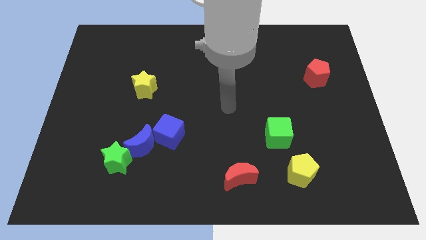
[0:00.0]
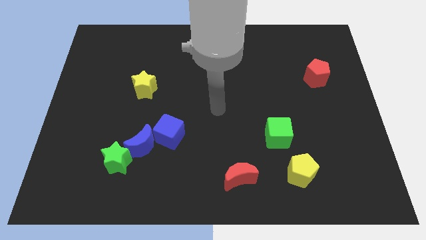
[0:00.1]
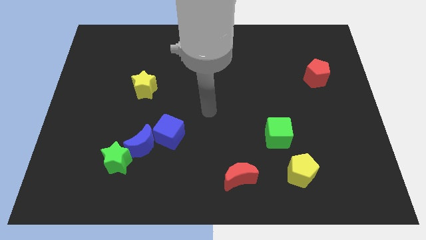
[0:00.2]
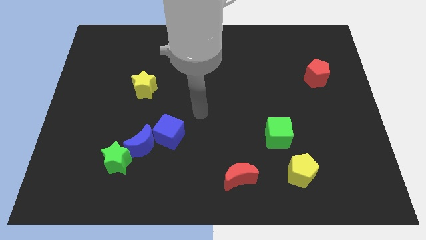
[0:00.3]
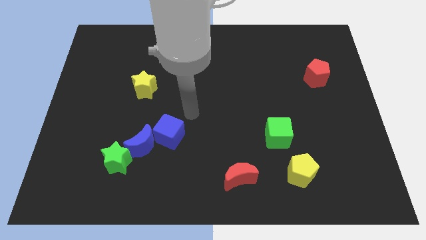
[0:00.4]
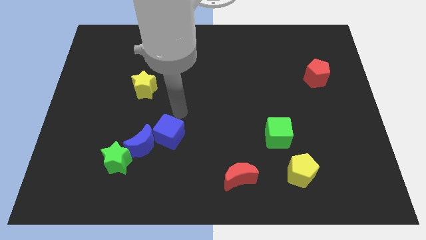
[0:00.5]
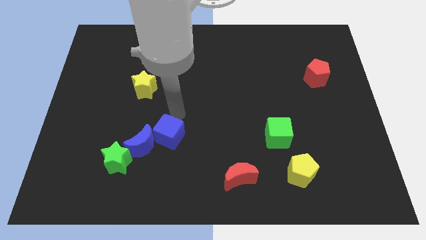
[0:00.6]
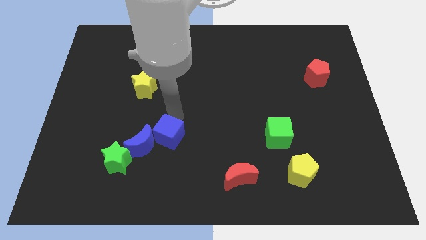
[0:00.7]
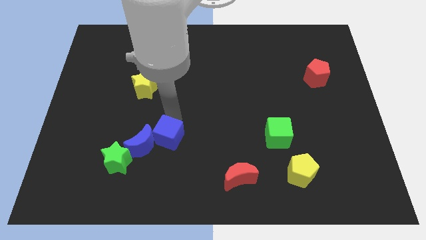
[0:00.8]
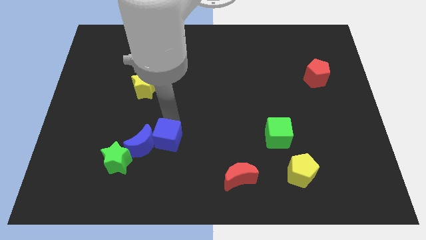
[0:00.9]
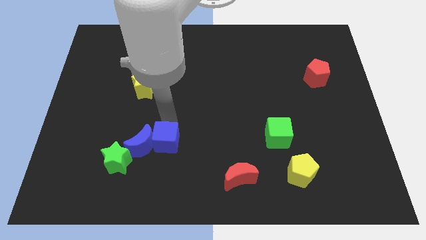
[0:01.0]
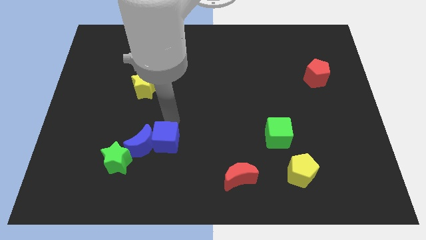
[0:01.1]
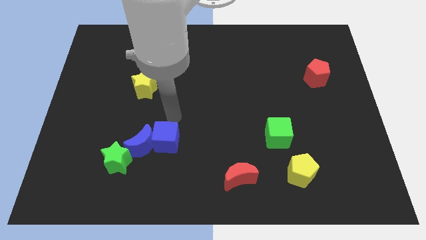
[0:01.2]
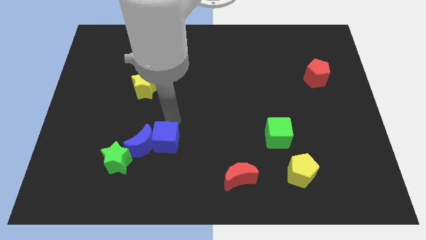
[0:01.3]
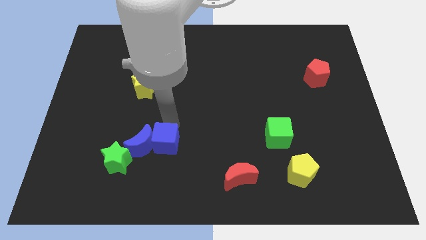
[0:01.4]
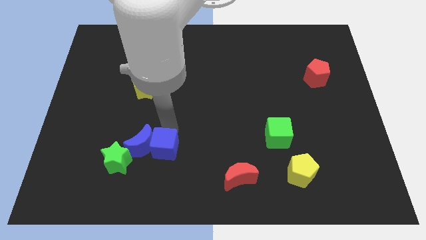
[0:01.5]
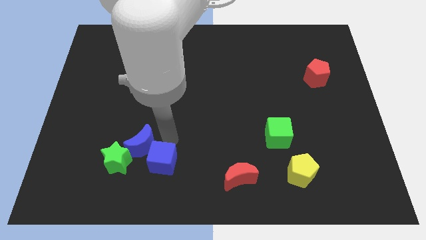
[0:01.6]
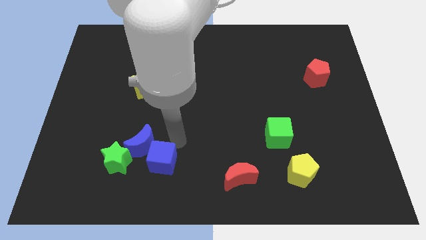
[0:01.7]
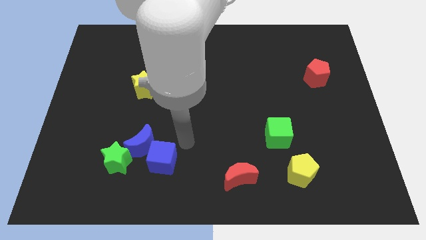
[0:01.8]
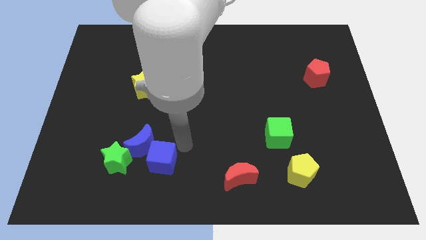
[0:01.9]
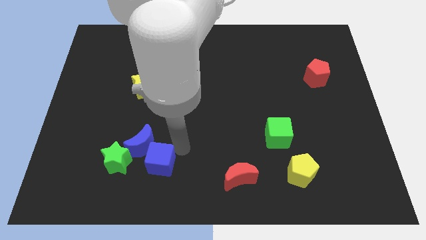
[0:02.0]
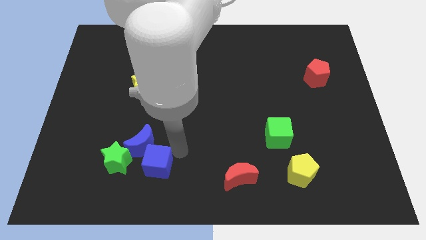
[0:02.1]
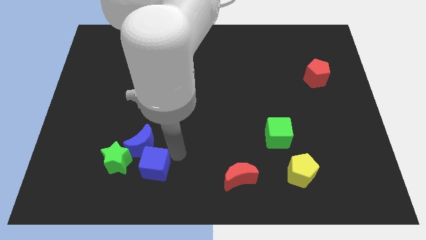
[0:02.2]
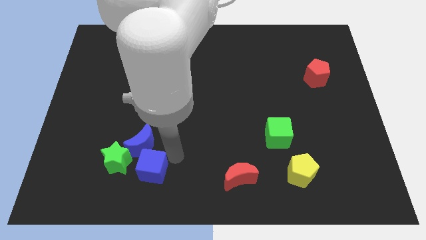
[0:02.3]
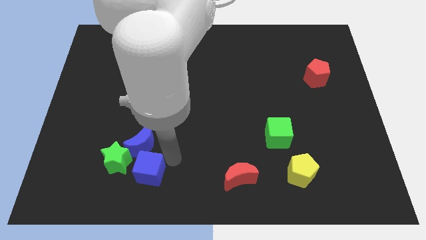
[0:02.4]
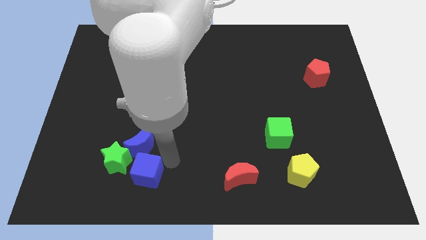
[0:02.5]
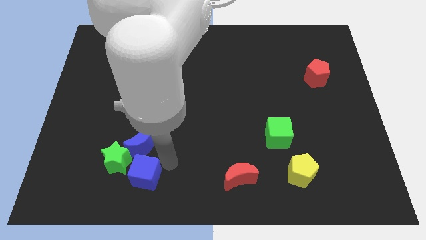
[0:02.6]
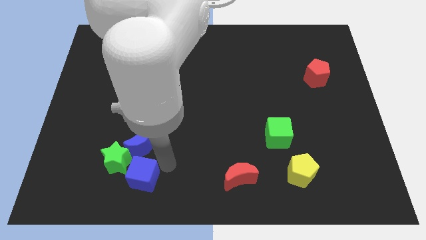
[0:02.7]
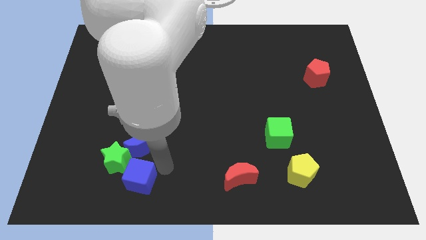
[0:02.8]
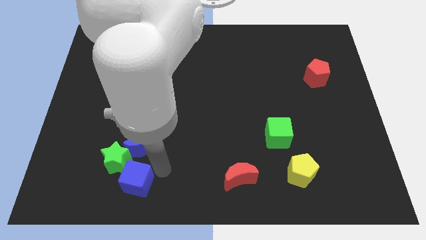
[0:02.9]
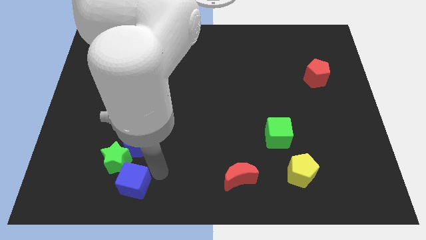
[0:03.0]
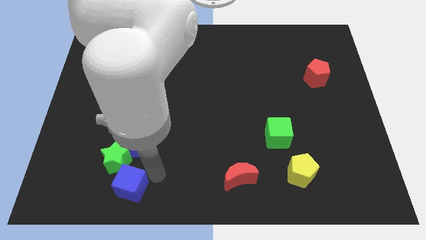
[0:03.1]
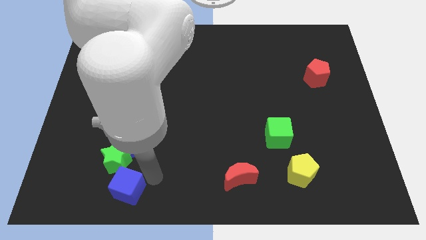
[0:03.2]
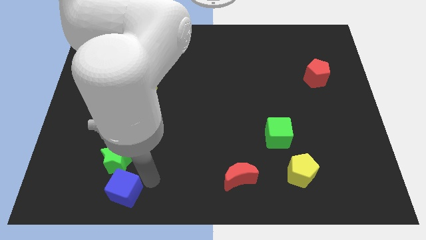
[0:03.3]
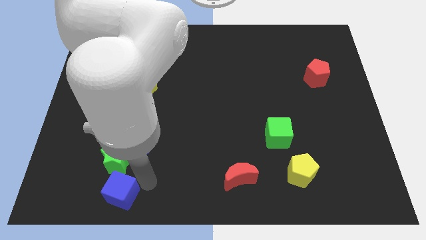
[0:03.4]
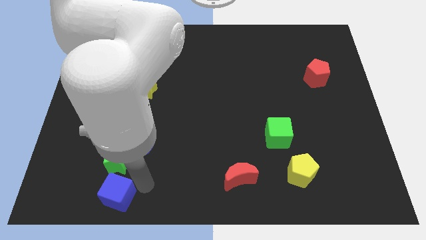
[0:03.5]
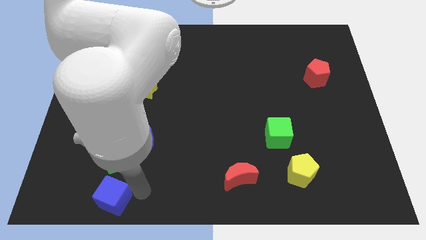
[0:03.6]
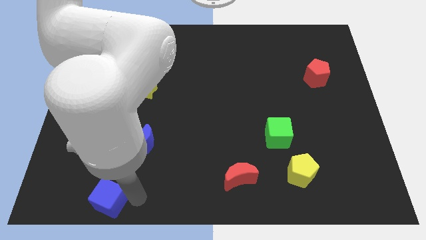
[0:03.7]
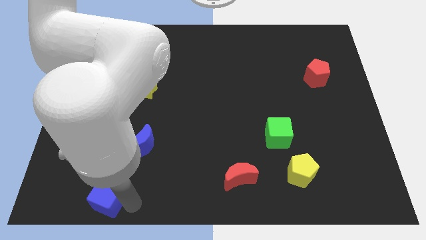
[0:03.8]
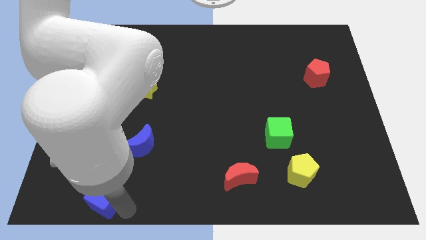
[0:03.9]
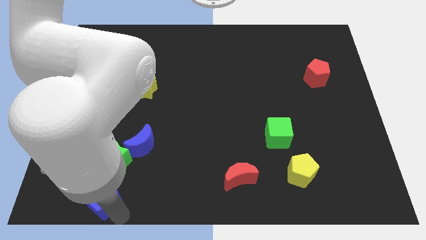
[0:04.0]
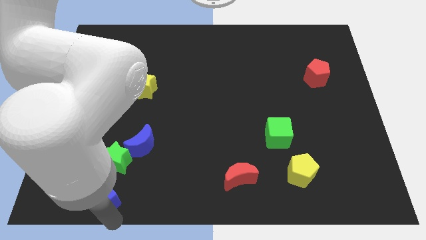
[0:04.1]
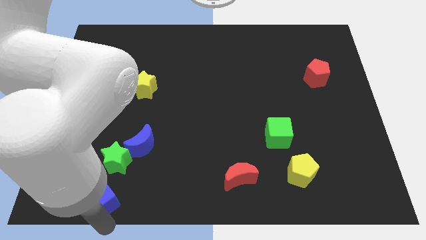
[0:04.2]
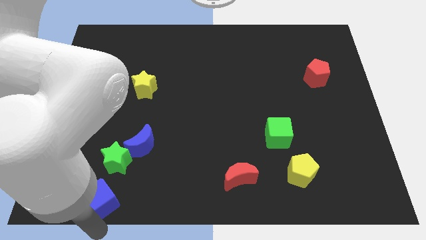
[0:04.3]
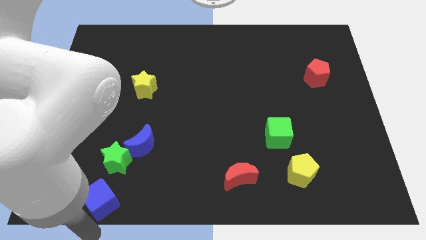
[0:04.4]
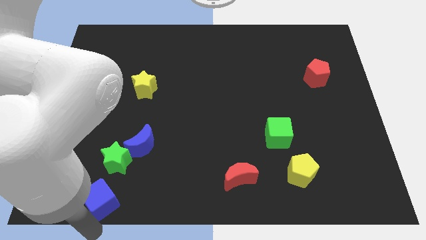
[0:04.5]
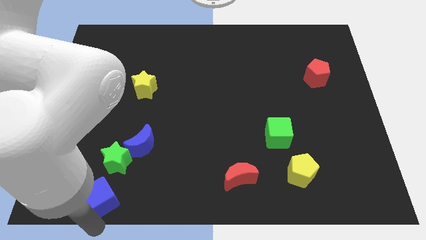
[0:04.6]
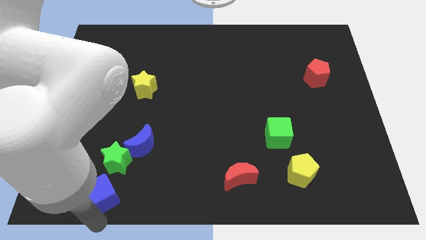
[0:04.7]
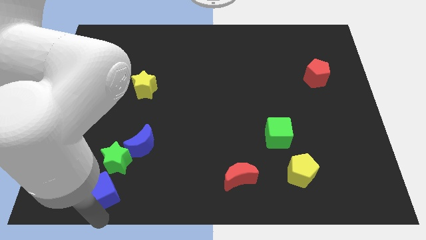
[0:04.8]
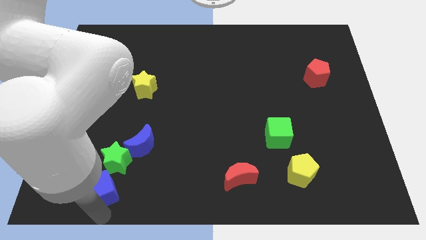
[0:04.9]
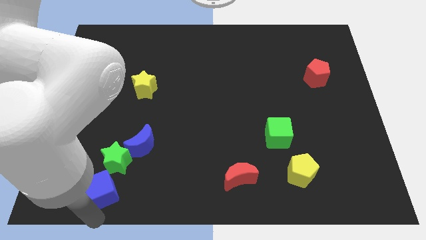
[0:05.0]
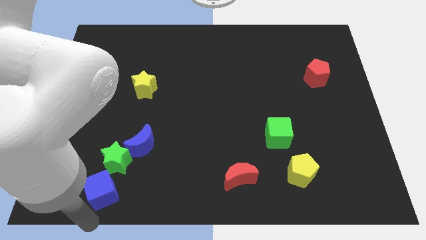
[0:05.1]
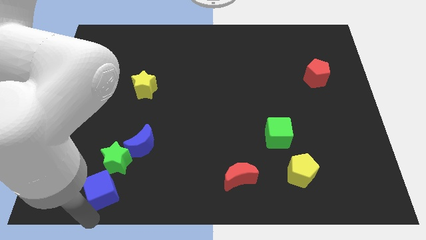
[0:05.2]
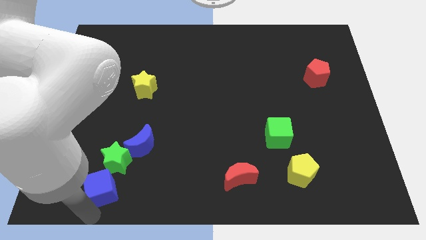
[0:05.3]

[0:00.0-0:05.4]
slide the blue cube diagonally down and to the left of the blue moon

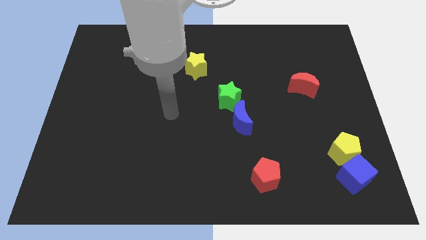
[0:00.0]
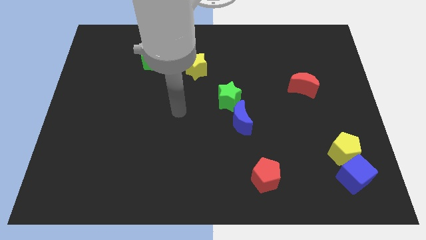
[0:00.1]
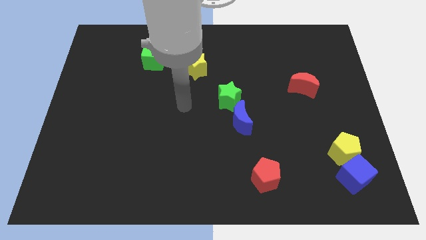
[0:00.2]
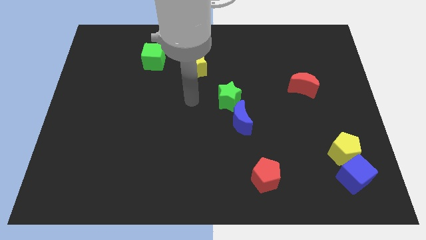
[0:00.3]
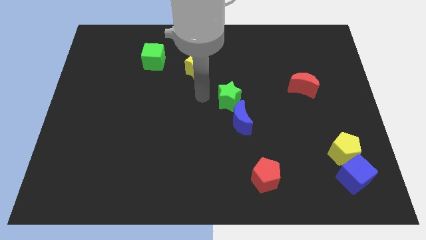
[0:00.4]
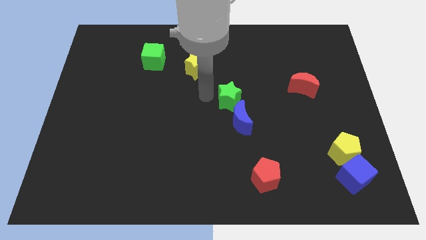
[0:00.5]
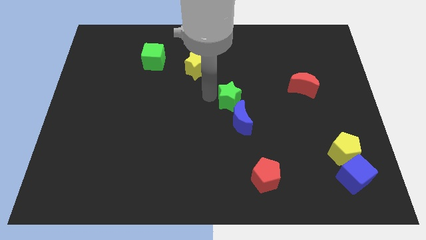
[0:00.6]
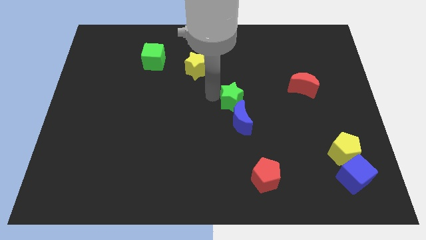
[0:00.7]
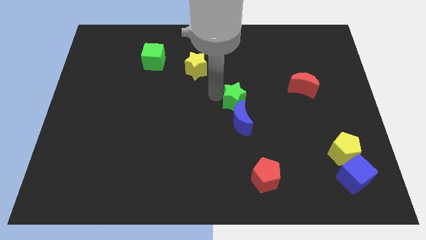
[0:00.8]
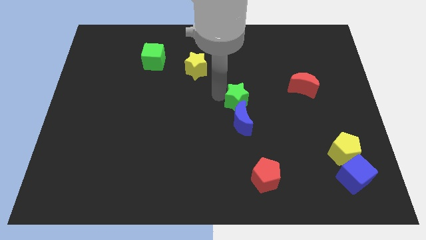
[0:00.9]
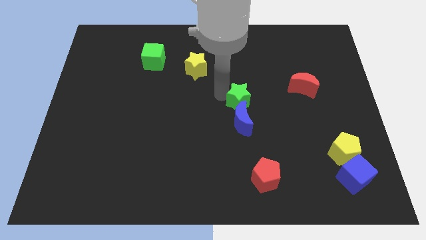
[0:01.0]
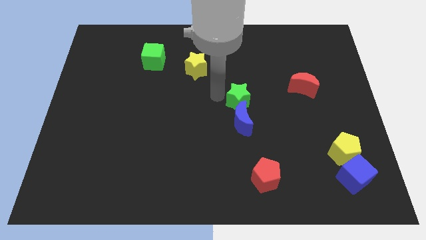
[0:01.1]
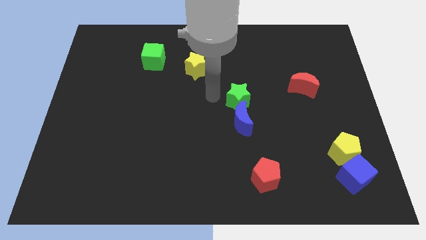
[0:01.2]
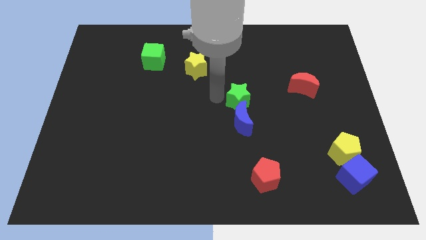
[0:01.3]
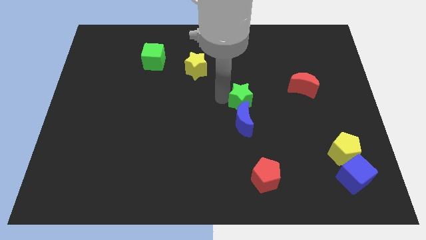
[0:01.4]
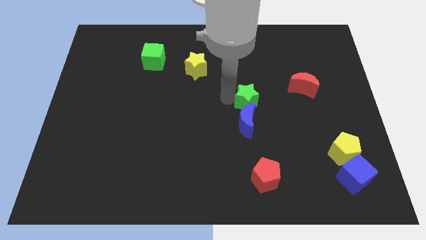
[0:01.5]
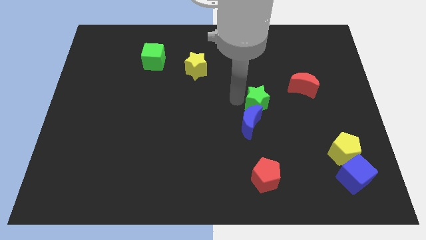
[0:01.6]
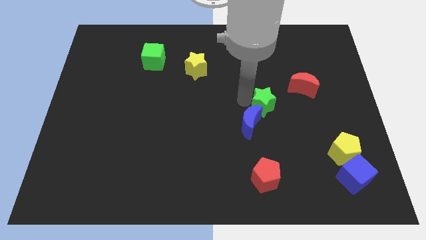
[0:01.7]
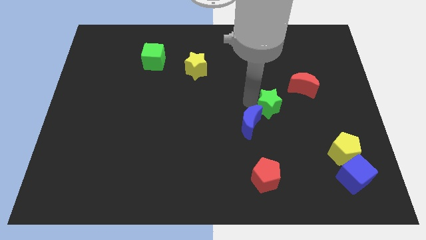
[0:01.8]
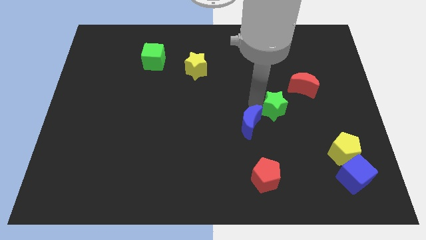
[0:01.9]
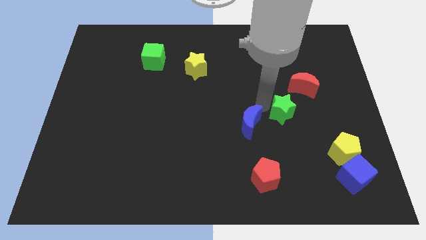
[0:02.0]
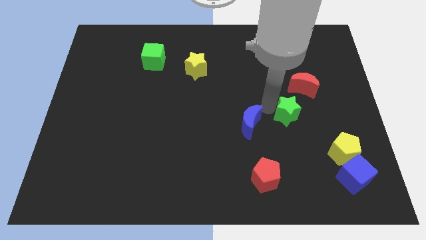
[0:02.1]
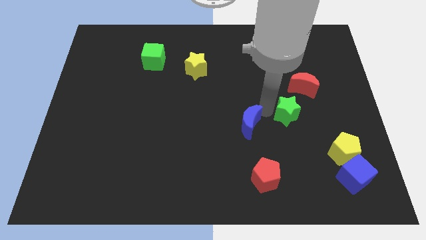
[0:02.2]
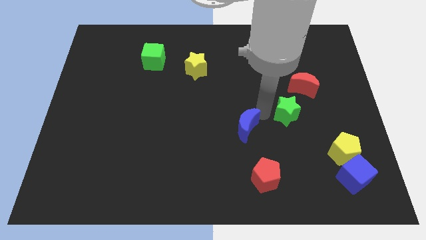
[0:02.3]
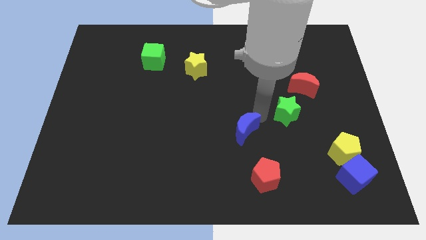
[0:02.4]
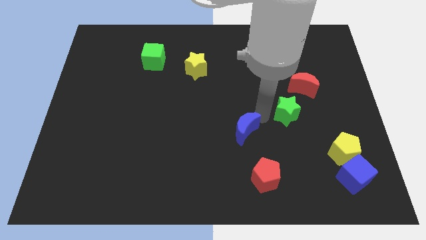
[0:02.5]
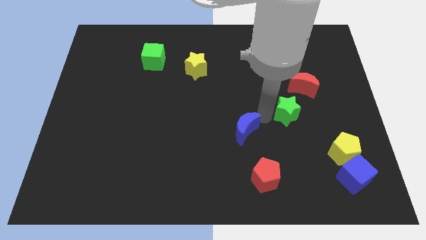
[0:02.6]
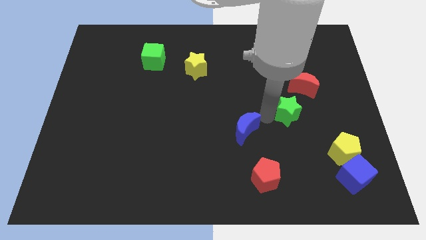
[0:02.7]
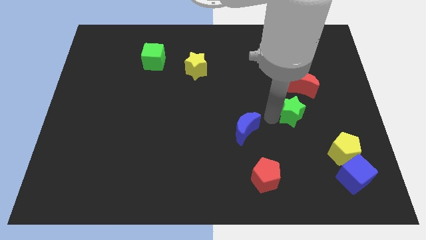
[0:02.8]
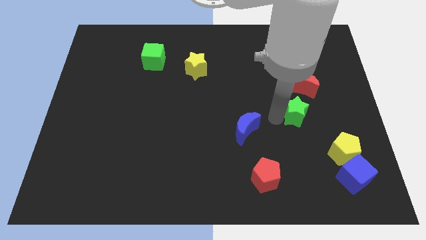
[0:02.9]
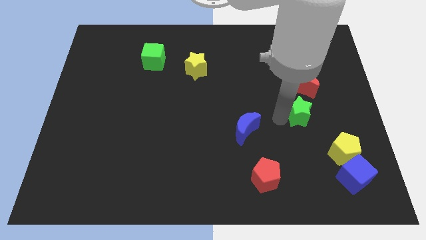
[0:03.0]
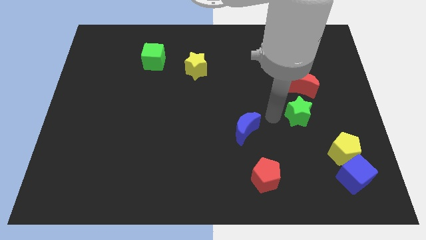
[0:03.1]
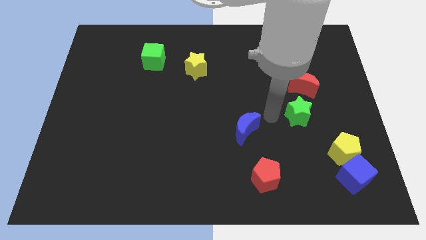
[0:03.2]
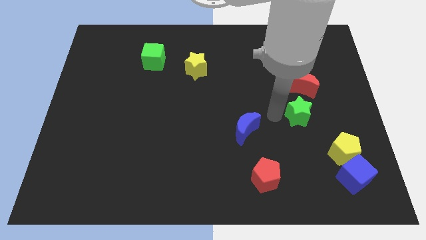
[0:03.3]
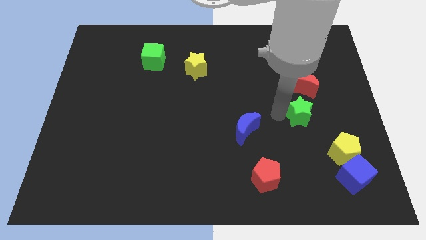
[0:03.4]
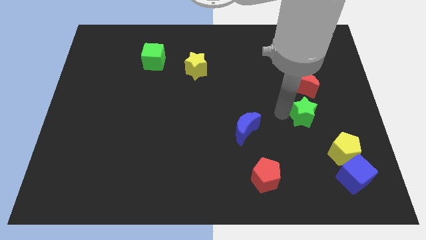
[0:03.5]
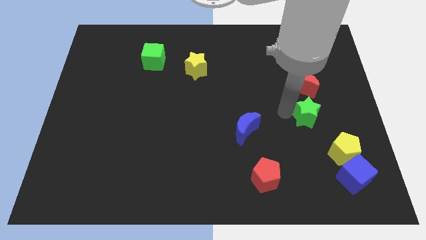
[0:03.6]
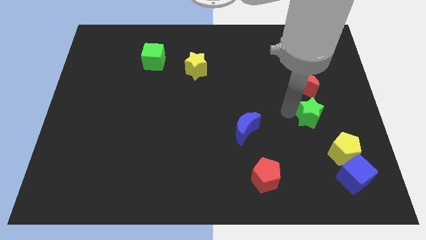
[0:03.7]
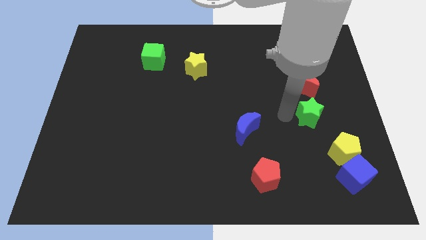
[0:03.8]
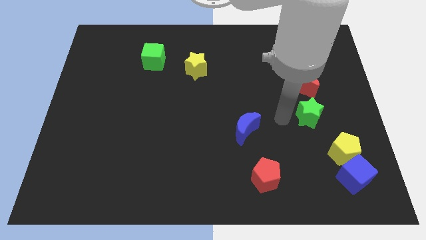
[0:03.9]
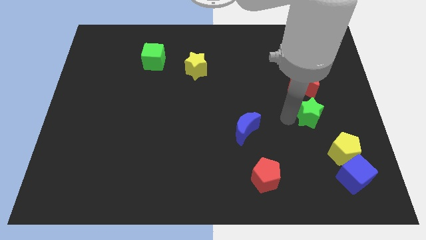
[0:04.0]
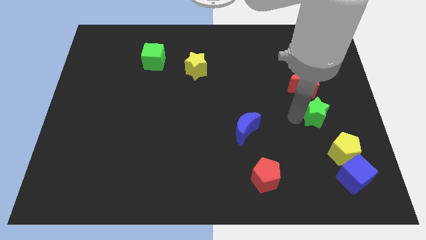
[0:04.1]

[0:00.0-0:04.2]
put the green star to the top of the yellow pentagon
